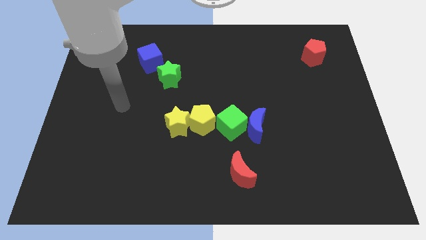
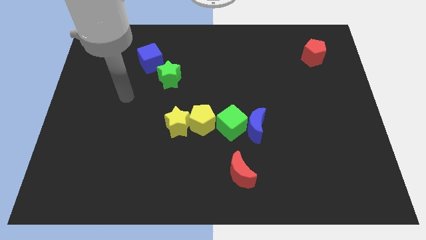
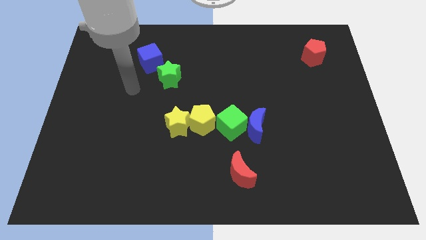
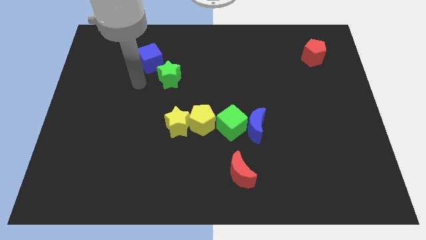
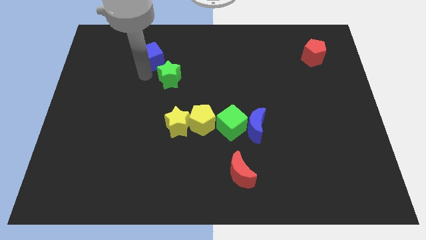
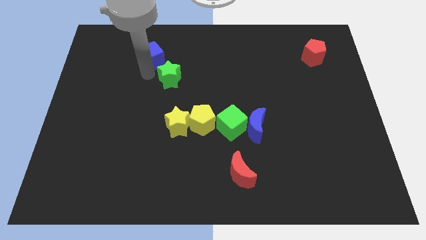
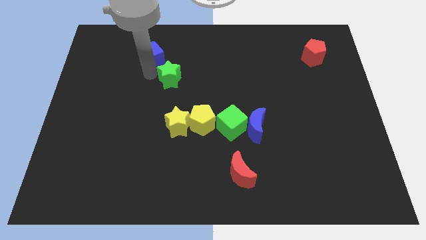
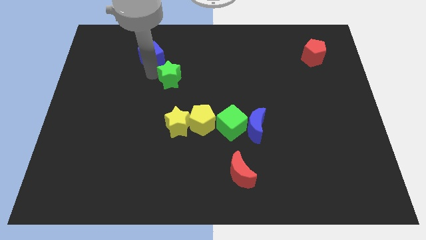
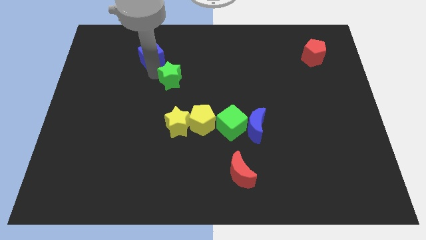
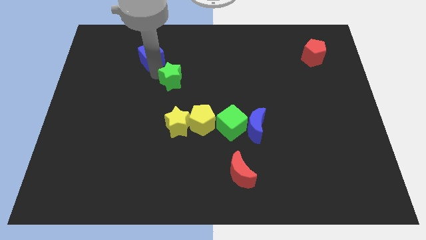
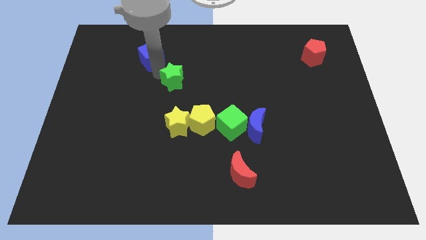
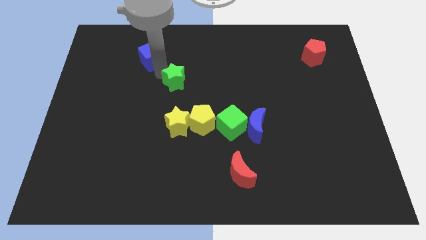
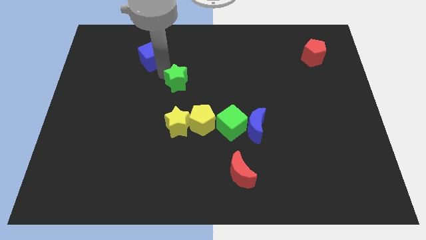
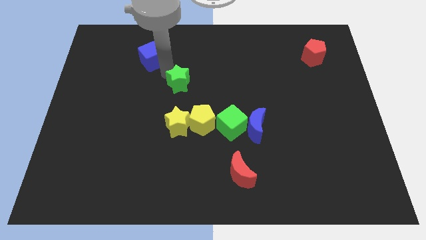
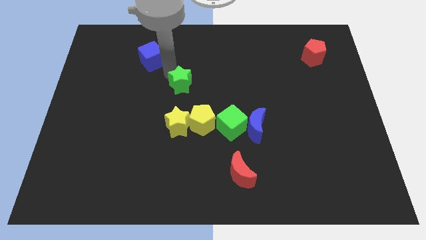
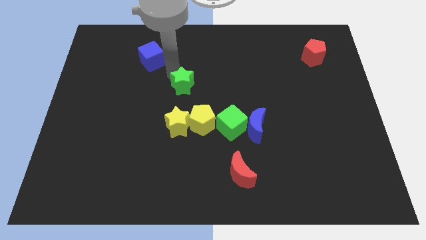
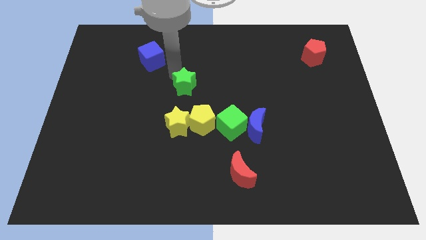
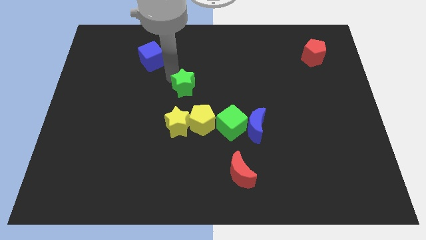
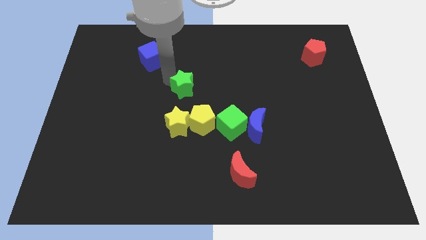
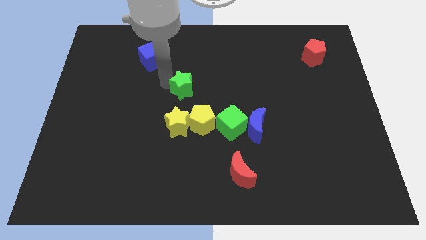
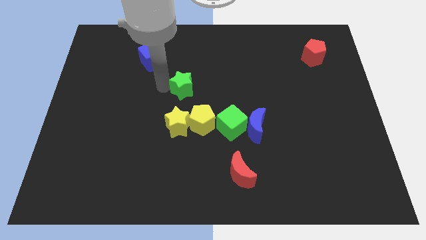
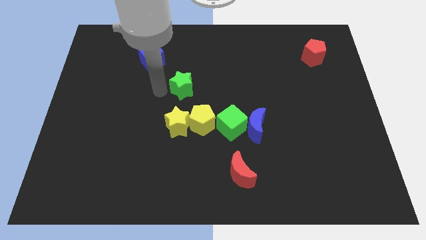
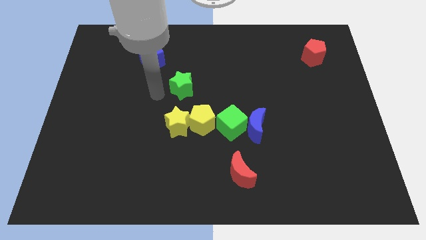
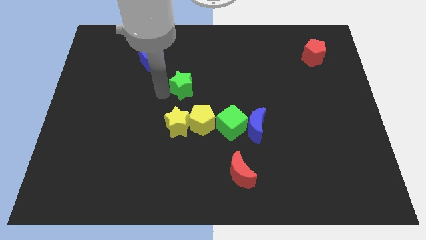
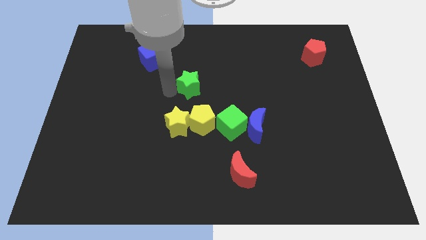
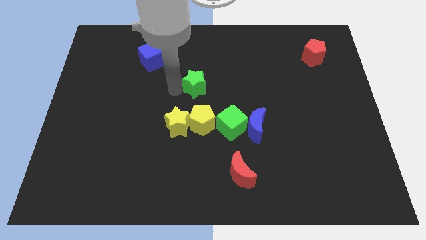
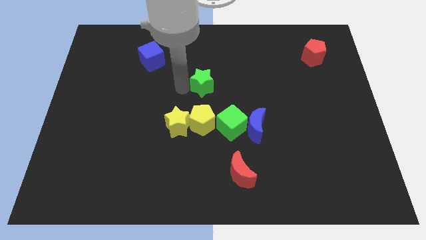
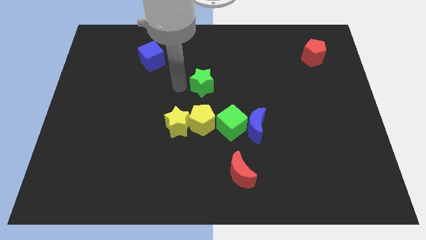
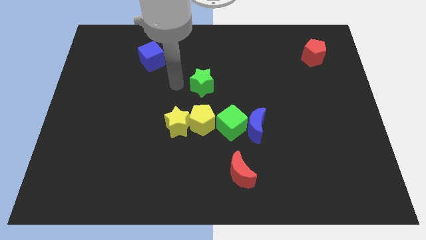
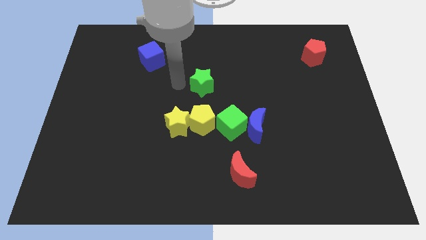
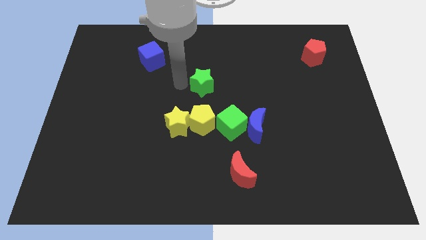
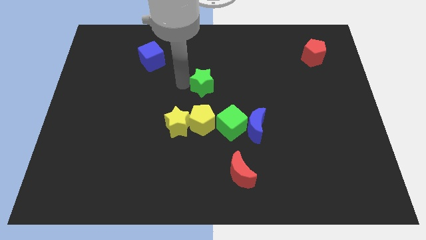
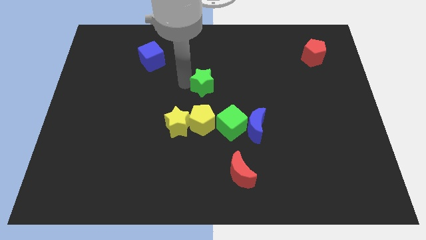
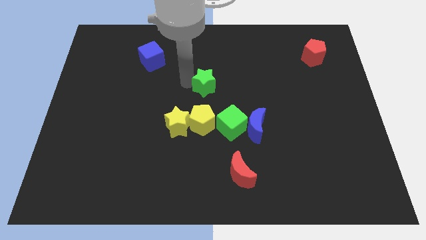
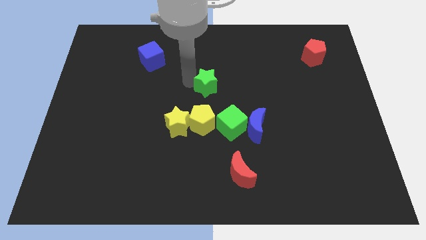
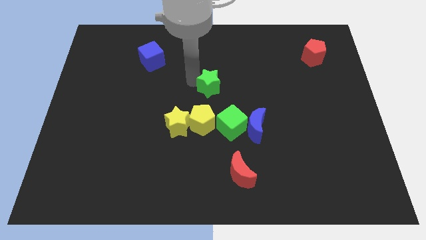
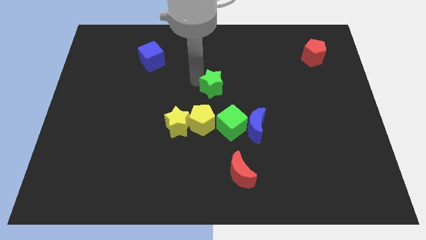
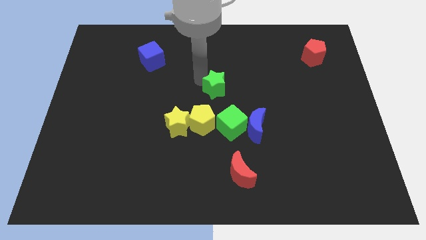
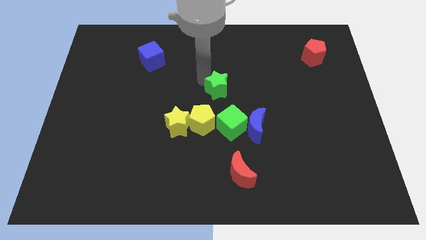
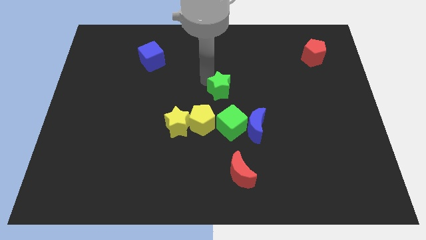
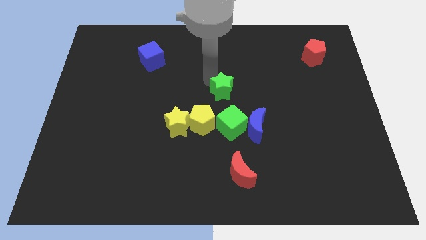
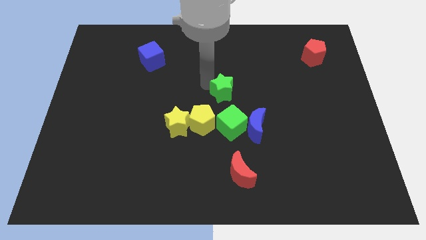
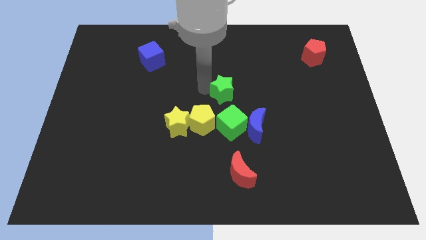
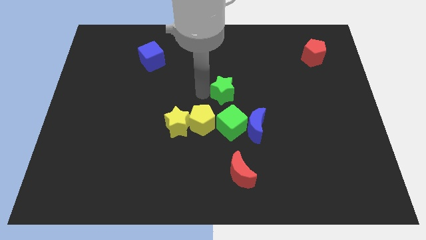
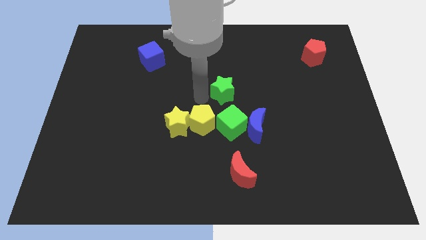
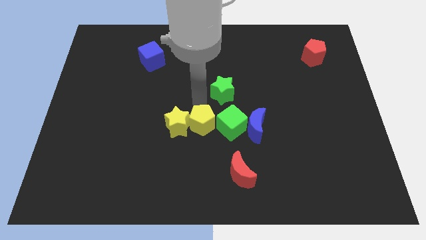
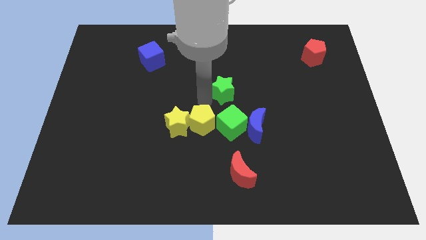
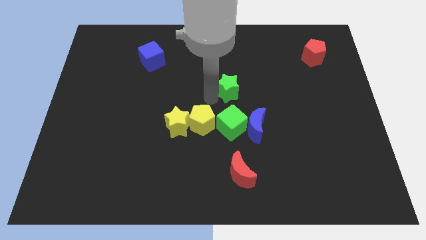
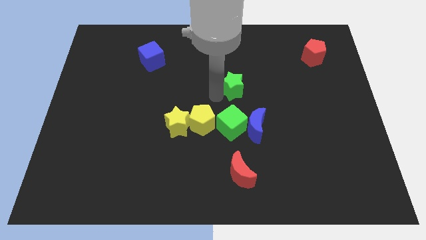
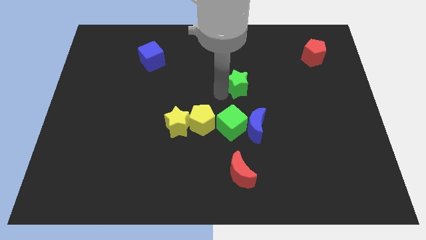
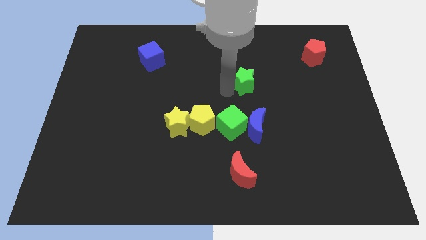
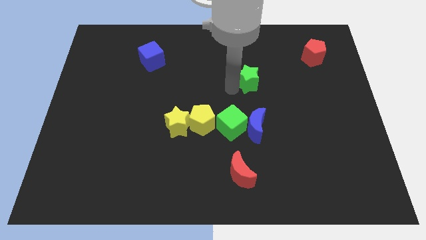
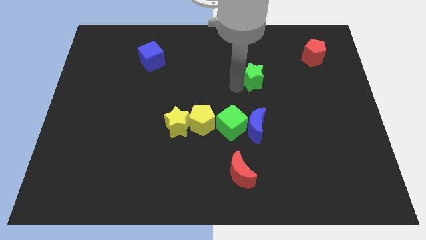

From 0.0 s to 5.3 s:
slide the green star to the right

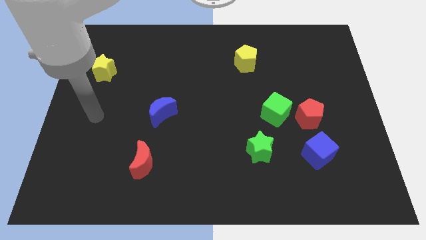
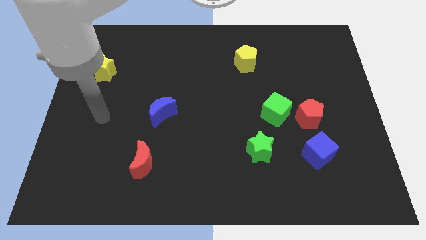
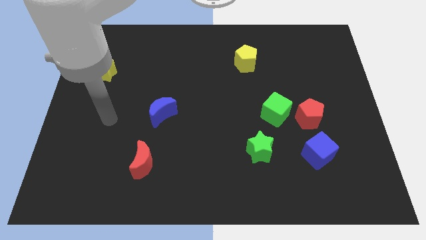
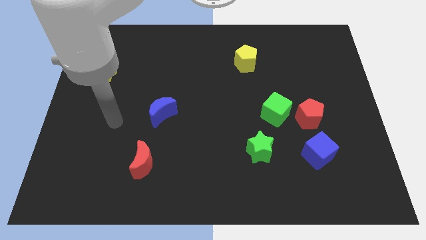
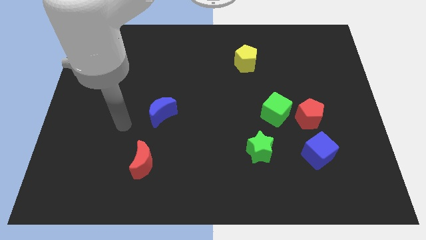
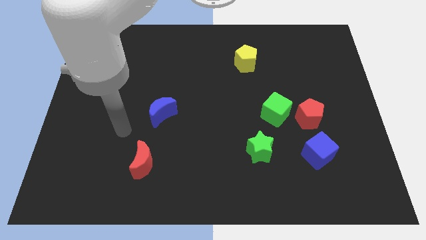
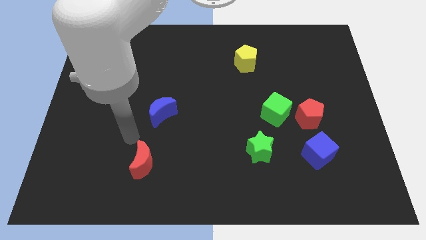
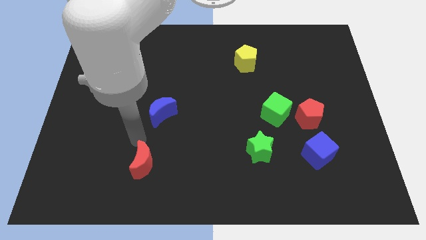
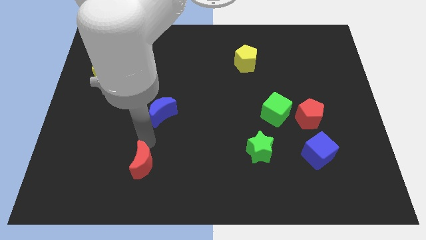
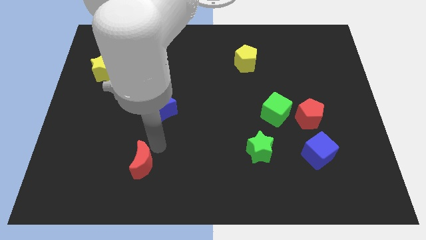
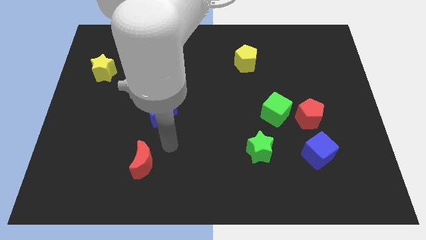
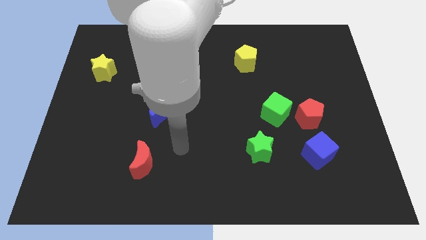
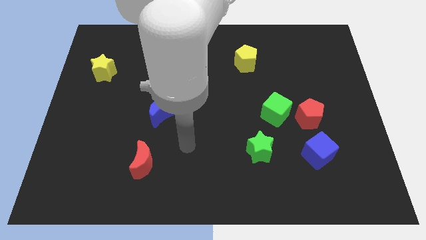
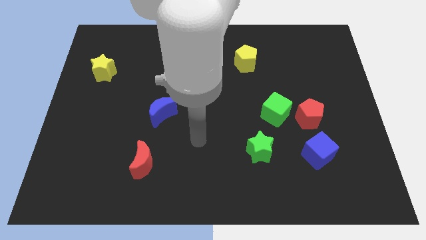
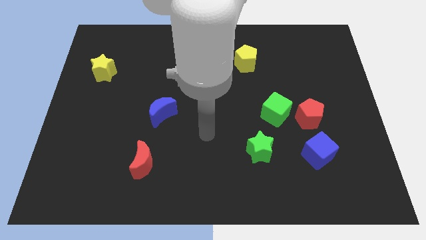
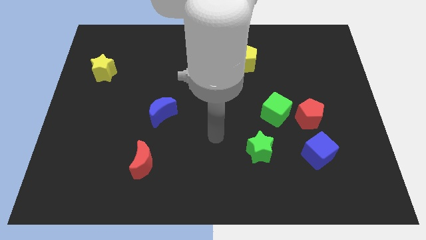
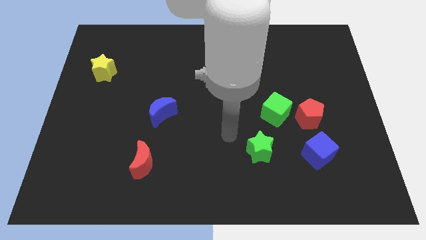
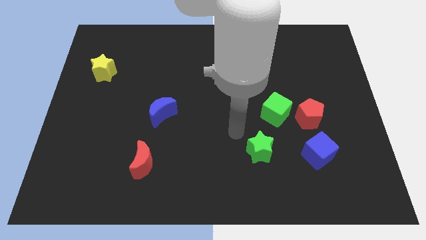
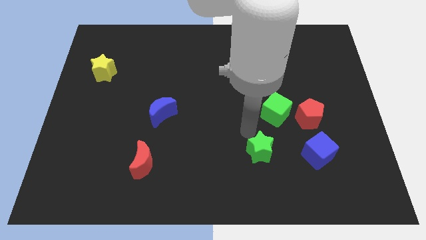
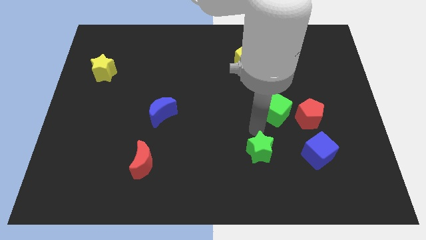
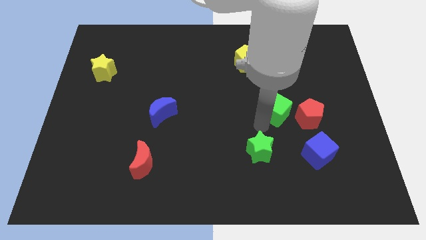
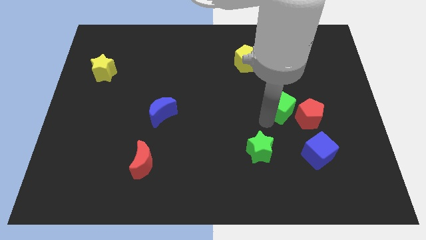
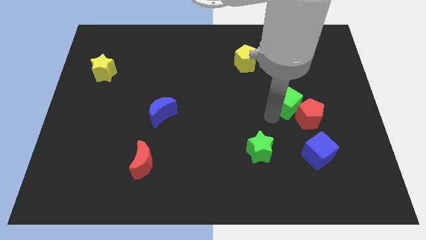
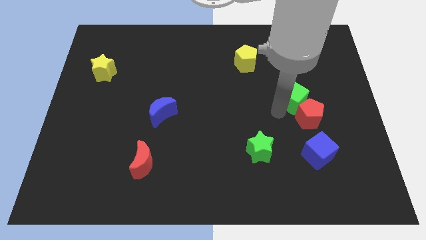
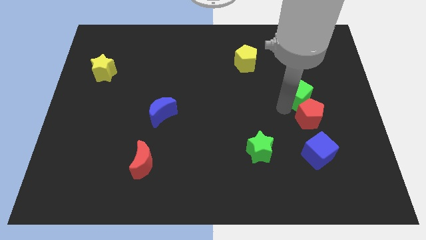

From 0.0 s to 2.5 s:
slightly slide the green cube diagonally upwards and right

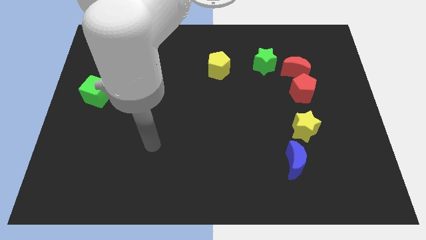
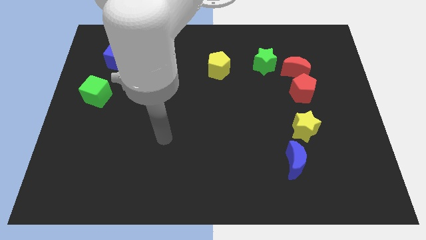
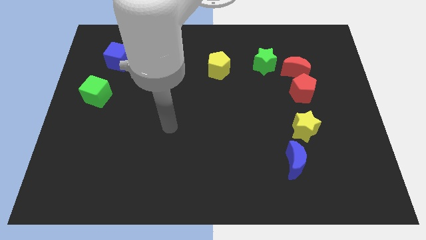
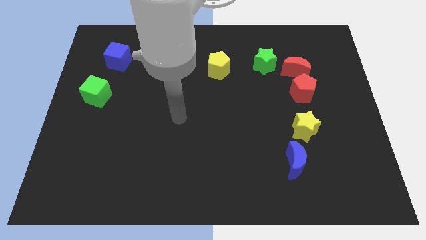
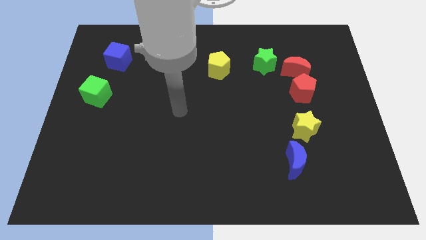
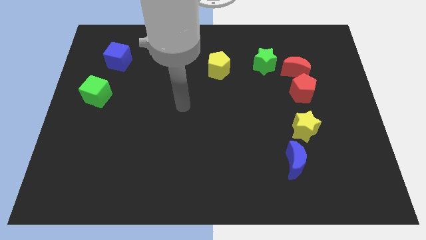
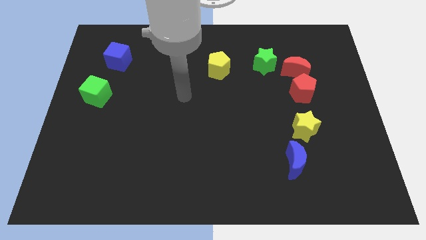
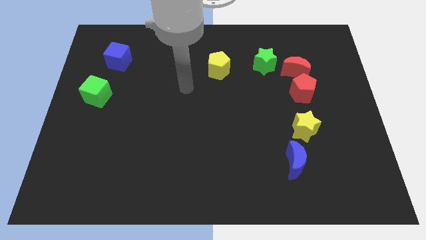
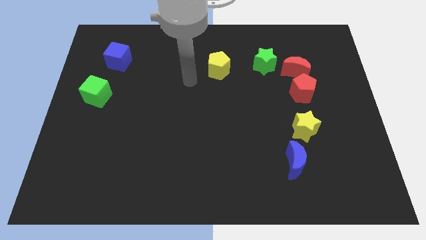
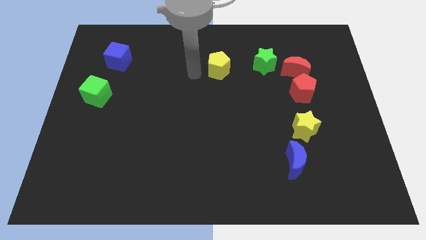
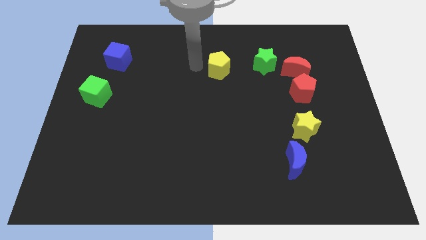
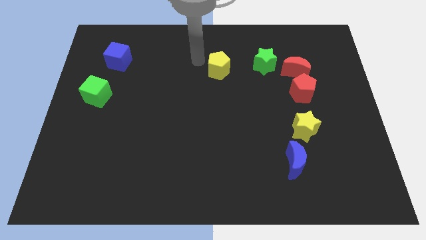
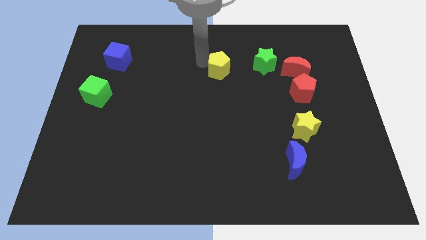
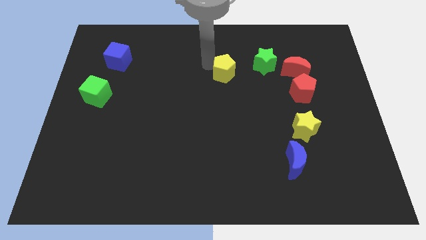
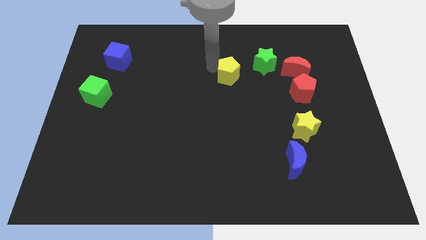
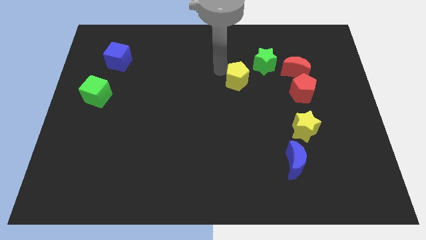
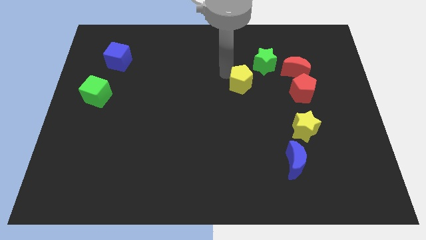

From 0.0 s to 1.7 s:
slightly slide the yellow pentagon downwards and right diagonally
